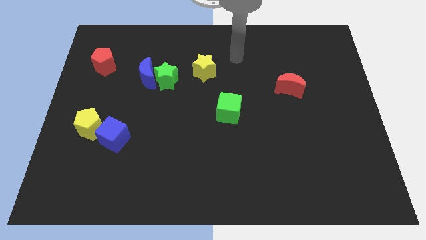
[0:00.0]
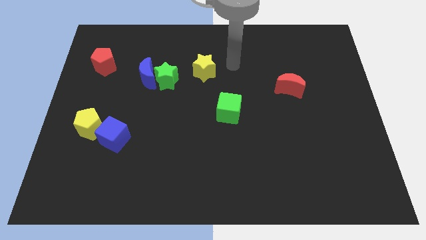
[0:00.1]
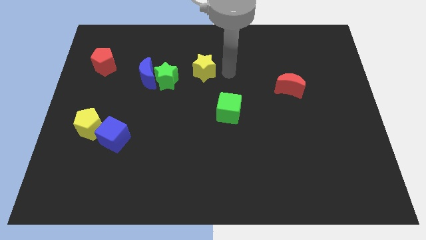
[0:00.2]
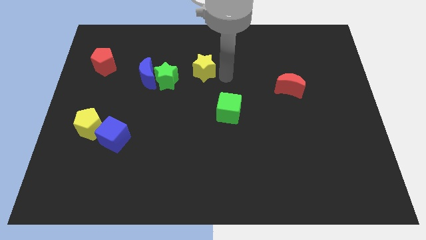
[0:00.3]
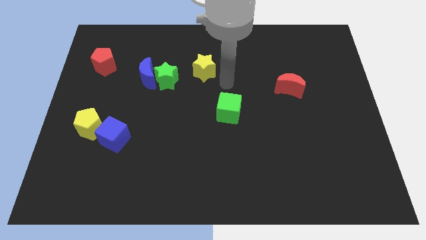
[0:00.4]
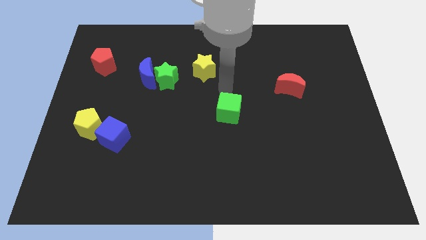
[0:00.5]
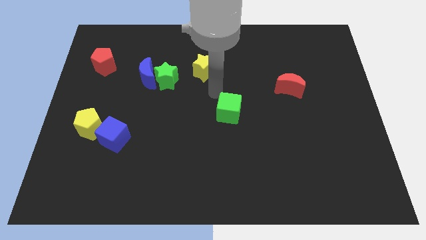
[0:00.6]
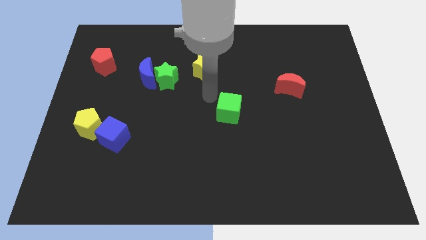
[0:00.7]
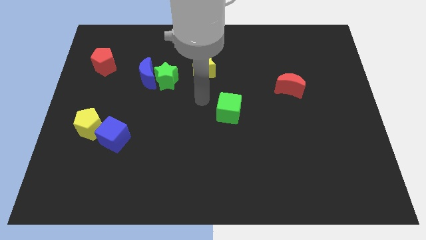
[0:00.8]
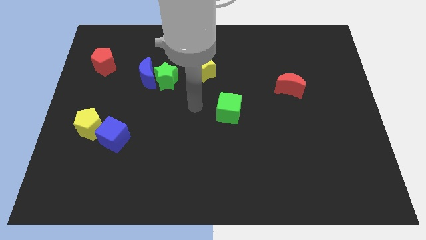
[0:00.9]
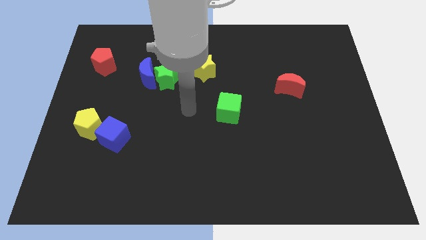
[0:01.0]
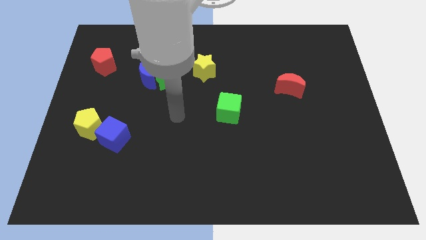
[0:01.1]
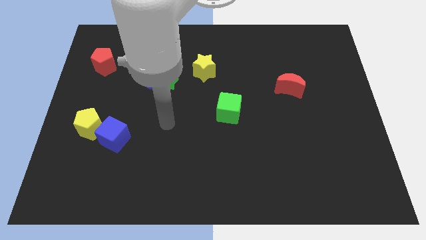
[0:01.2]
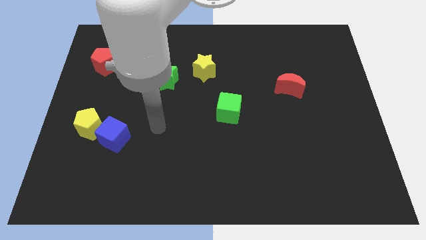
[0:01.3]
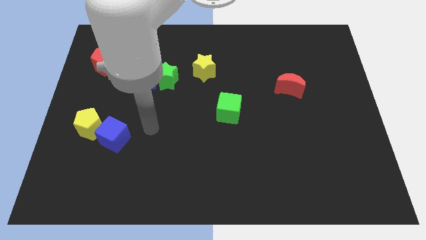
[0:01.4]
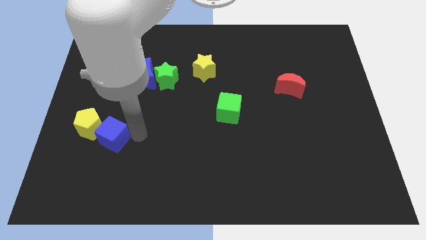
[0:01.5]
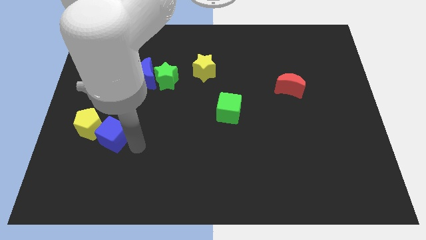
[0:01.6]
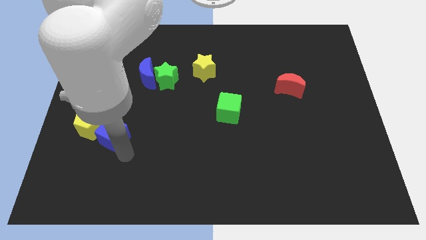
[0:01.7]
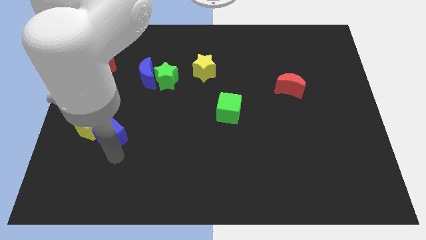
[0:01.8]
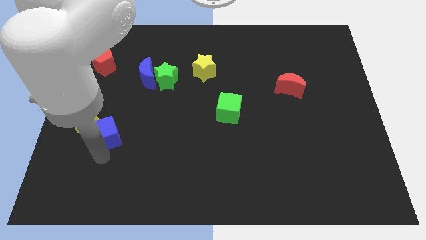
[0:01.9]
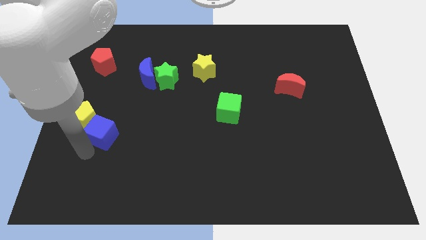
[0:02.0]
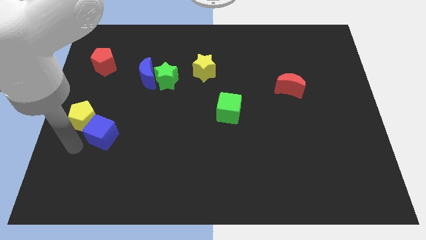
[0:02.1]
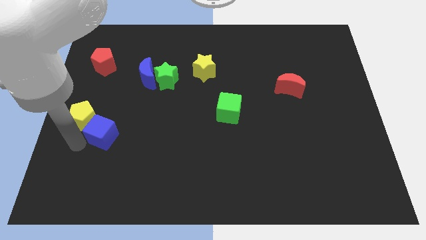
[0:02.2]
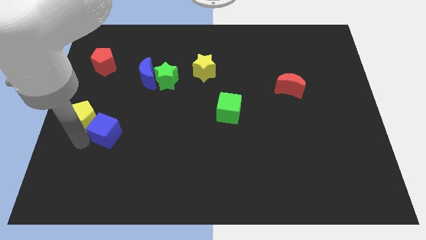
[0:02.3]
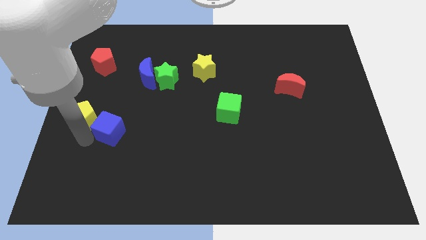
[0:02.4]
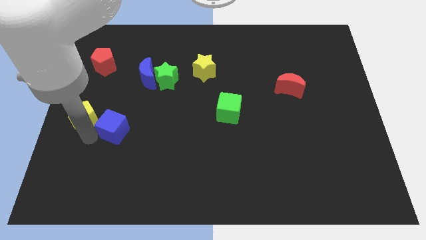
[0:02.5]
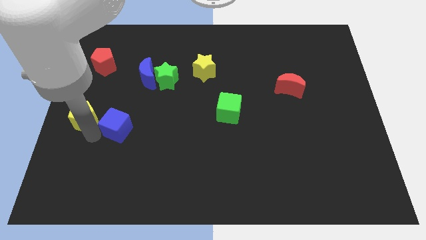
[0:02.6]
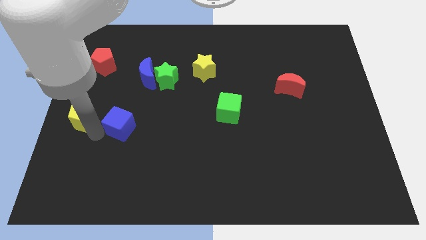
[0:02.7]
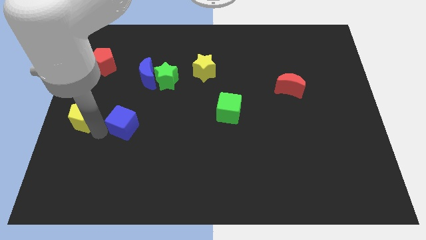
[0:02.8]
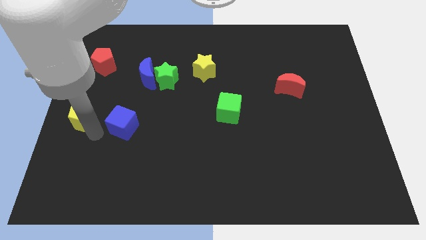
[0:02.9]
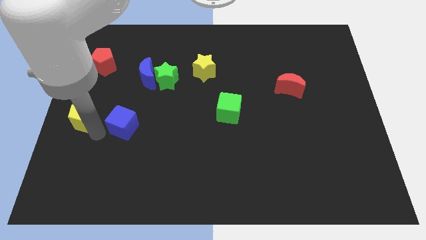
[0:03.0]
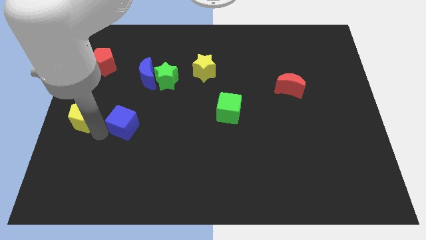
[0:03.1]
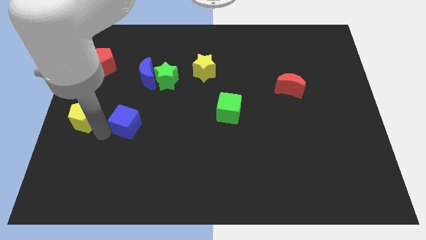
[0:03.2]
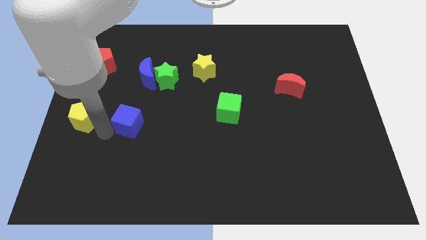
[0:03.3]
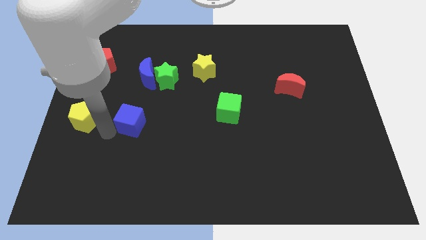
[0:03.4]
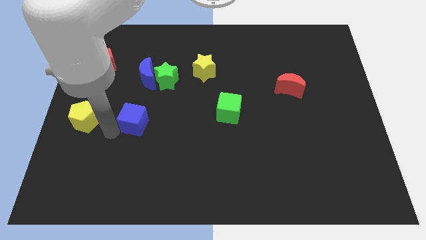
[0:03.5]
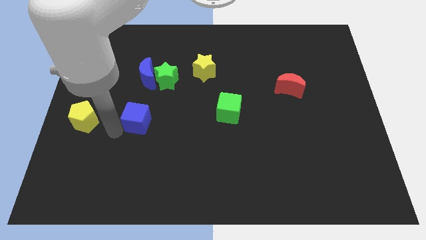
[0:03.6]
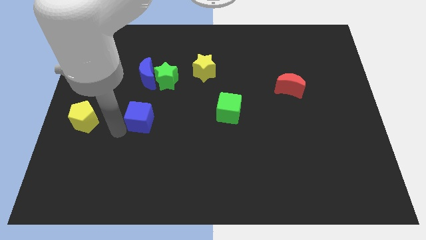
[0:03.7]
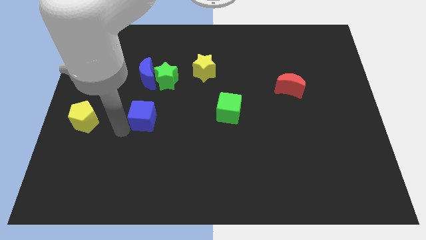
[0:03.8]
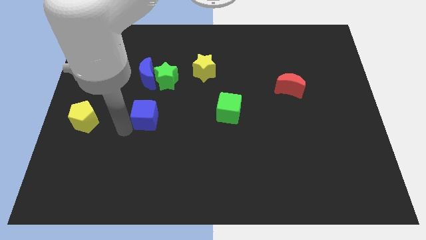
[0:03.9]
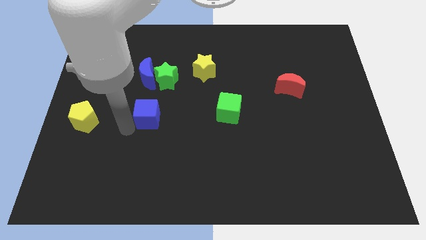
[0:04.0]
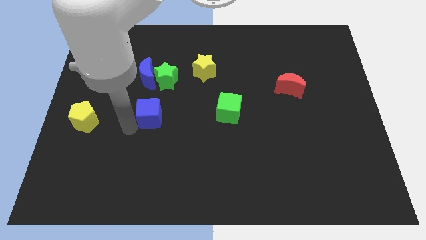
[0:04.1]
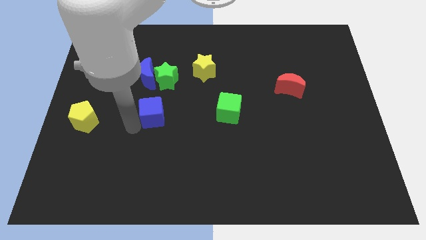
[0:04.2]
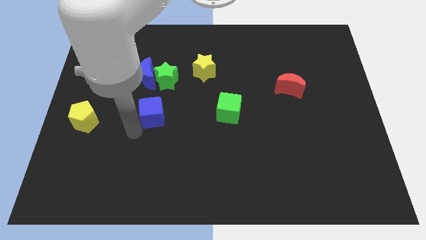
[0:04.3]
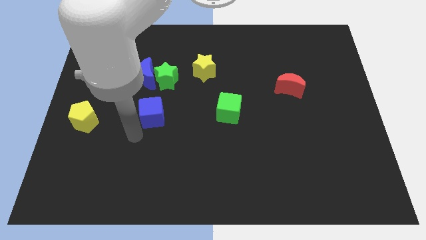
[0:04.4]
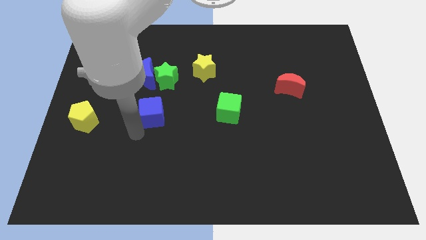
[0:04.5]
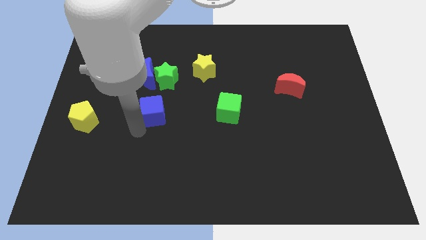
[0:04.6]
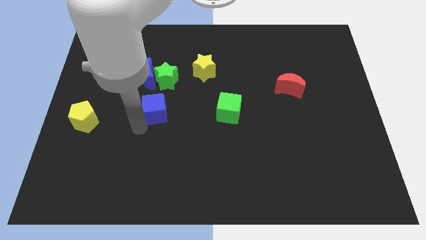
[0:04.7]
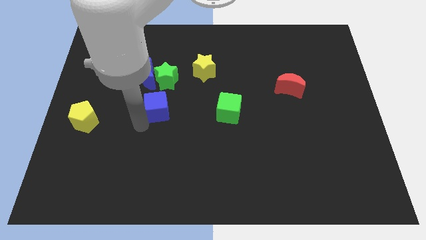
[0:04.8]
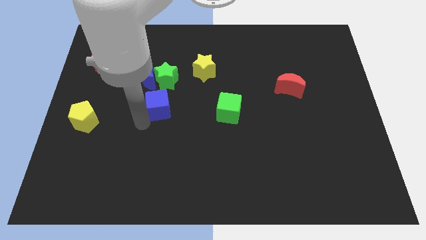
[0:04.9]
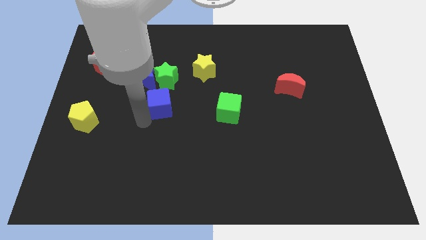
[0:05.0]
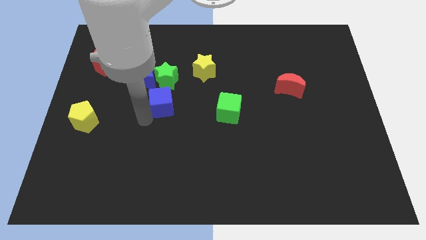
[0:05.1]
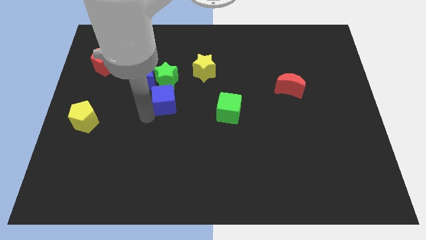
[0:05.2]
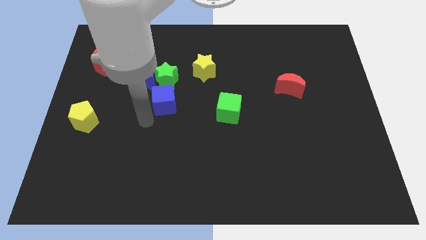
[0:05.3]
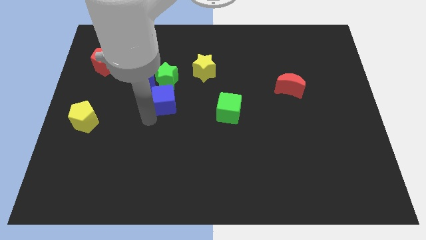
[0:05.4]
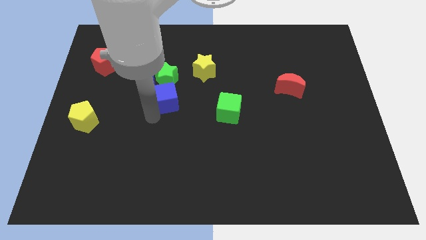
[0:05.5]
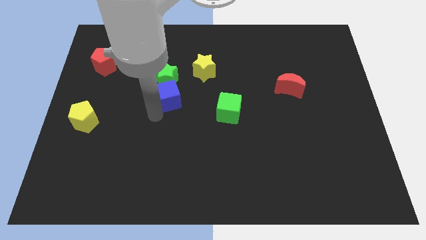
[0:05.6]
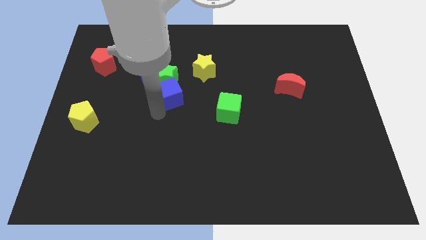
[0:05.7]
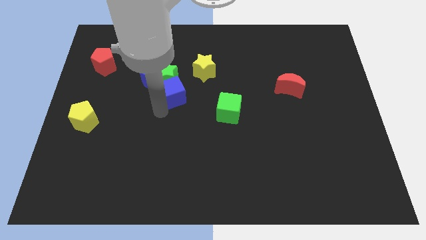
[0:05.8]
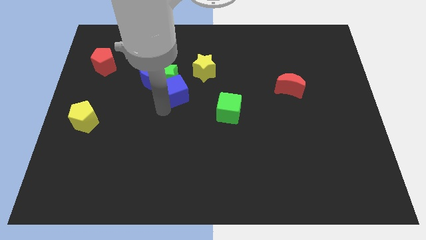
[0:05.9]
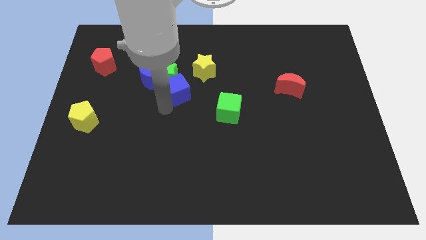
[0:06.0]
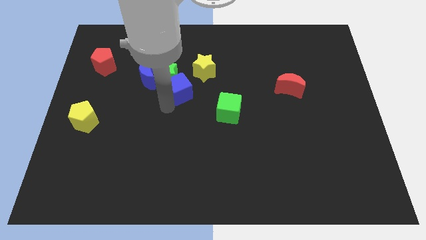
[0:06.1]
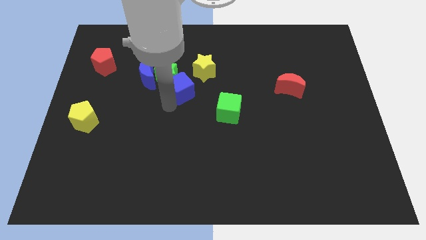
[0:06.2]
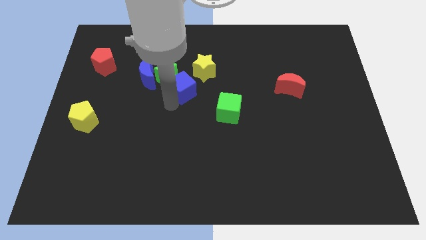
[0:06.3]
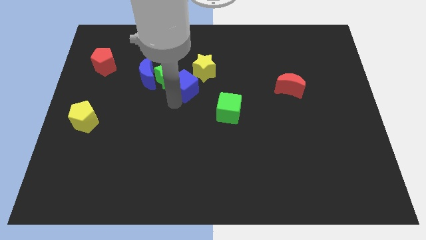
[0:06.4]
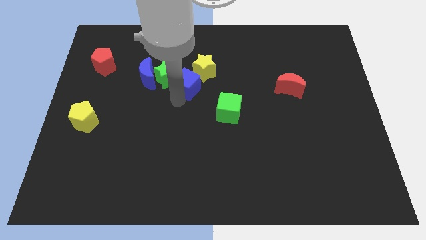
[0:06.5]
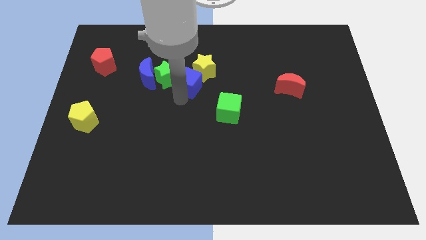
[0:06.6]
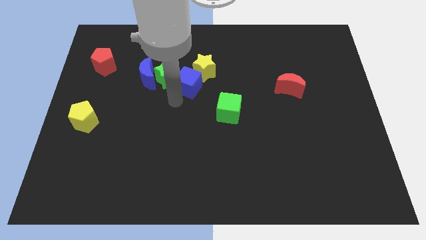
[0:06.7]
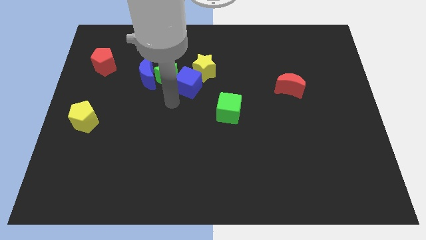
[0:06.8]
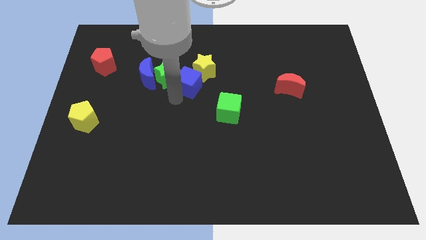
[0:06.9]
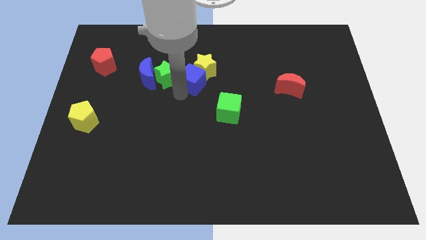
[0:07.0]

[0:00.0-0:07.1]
push the blue cube to the yellow star

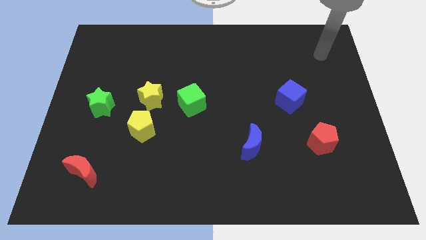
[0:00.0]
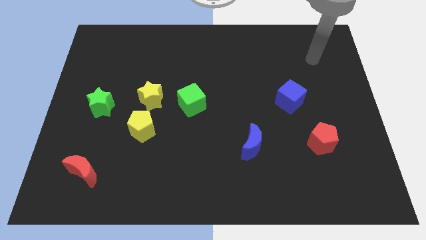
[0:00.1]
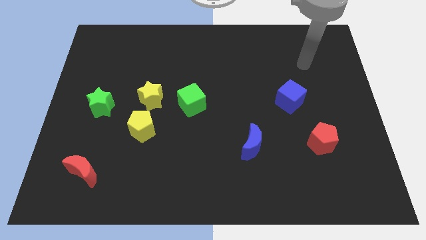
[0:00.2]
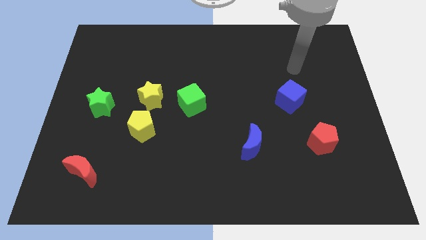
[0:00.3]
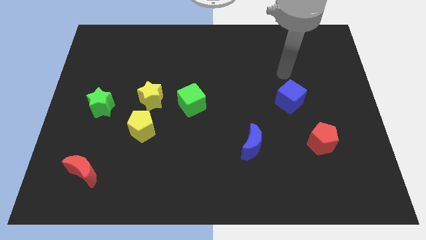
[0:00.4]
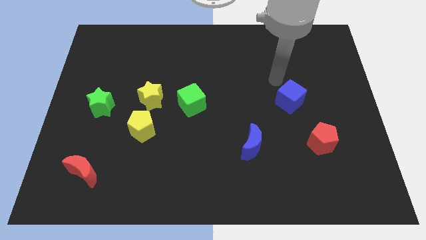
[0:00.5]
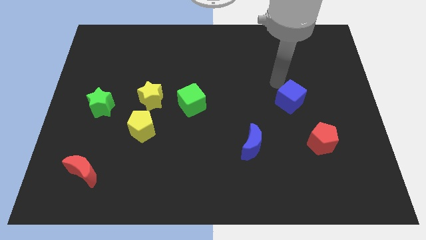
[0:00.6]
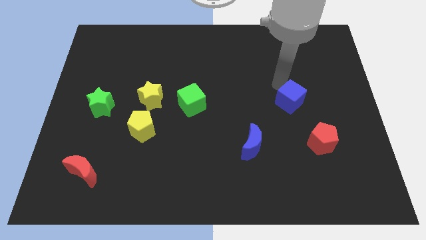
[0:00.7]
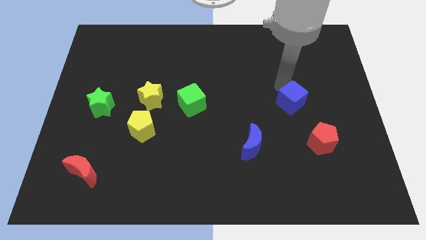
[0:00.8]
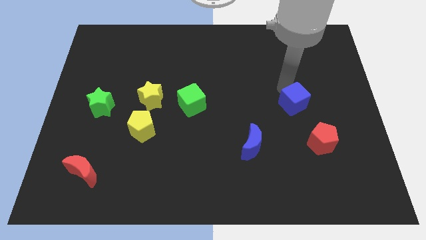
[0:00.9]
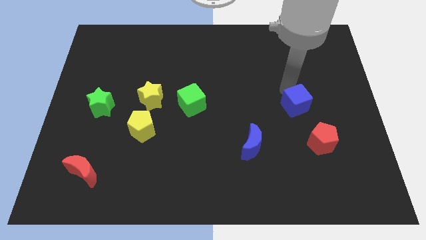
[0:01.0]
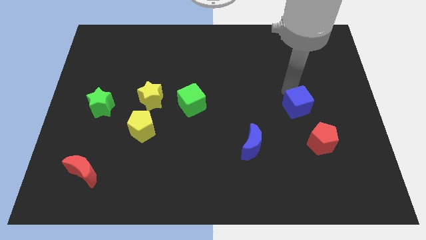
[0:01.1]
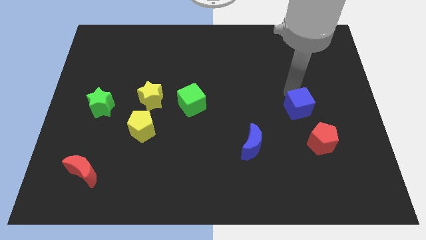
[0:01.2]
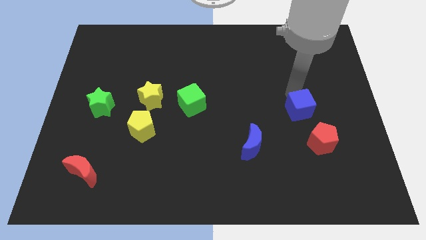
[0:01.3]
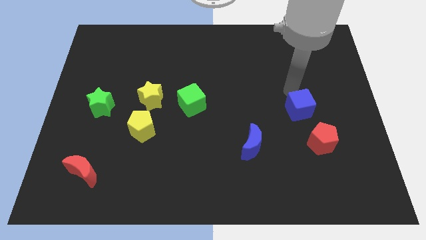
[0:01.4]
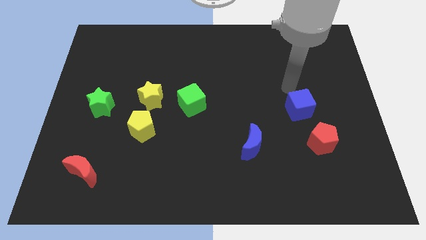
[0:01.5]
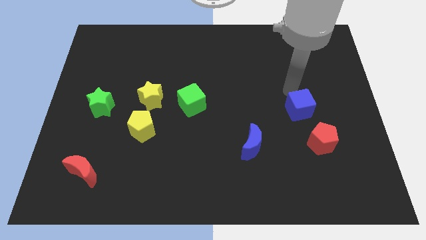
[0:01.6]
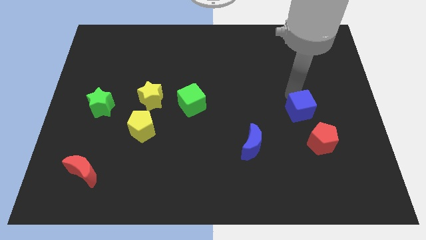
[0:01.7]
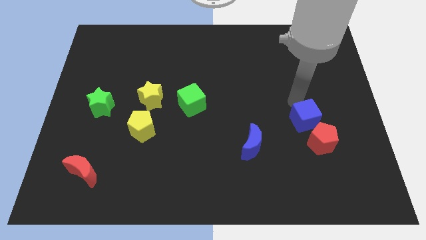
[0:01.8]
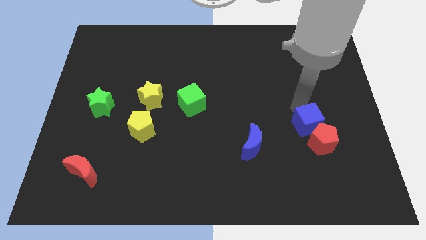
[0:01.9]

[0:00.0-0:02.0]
put the blue cube towards the red pentagon
